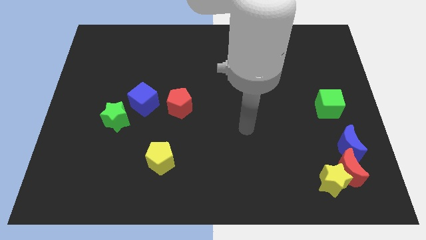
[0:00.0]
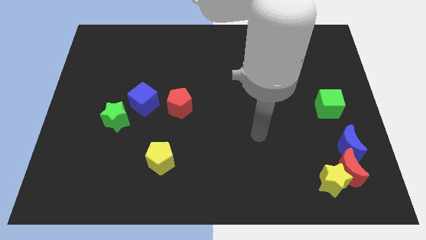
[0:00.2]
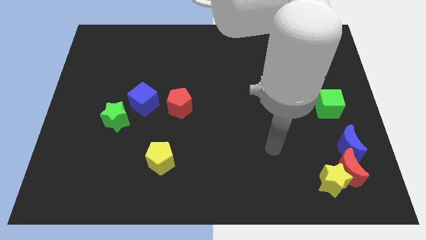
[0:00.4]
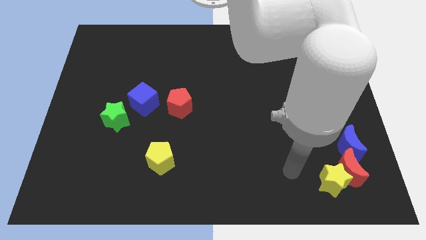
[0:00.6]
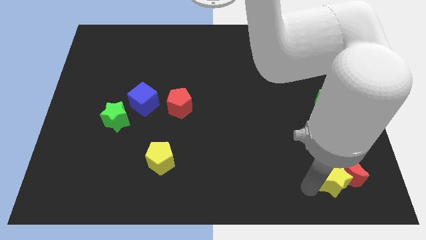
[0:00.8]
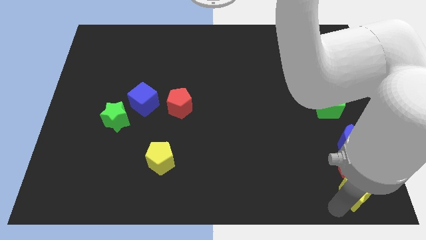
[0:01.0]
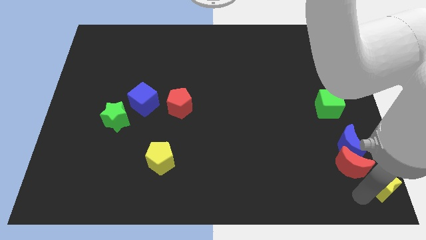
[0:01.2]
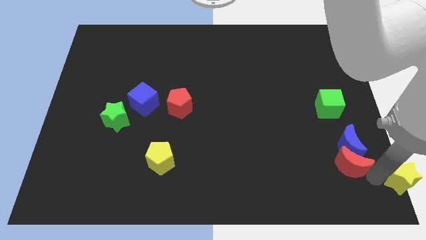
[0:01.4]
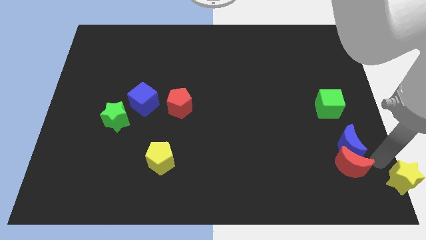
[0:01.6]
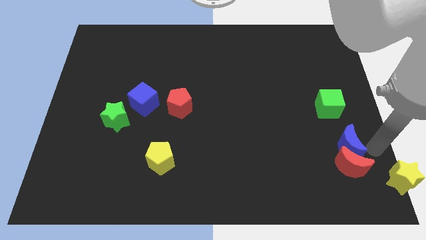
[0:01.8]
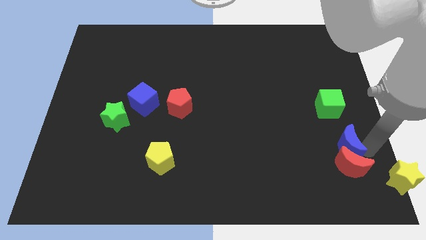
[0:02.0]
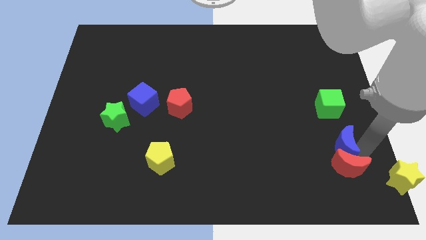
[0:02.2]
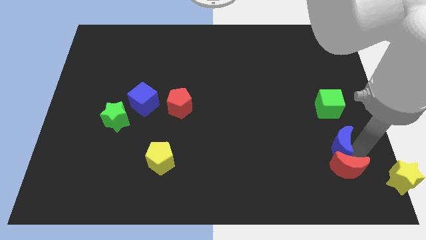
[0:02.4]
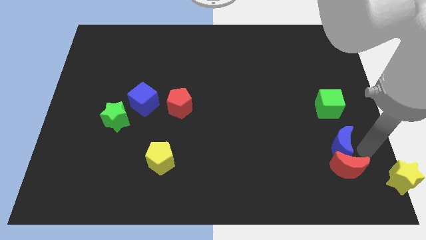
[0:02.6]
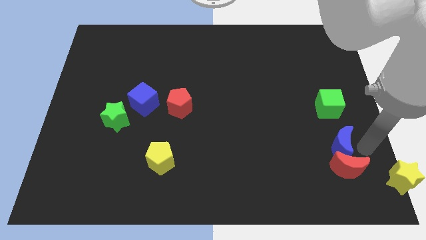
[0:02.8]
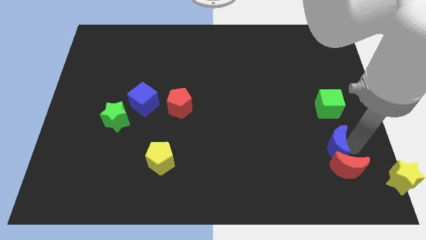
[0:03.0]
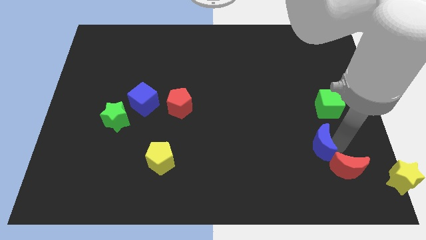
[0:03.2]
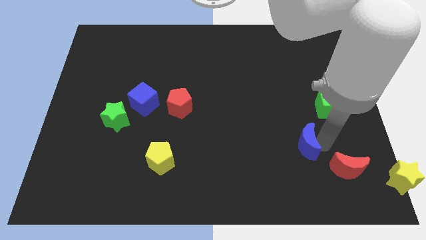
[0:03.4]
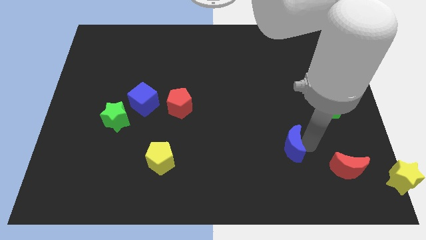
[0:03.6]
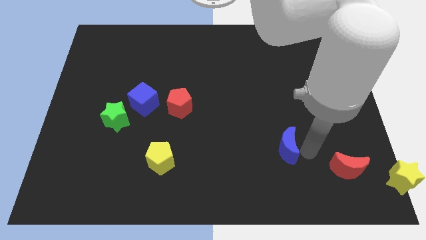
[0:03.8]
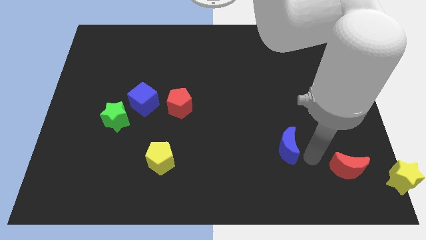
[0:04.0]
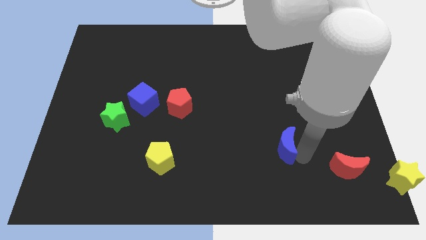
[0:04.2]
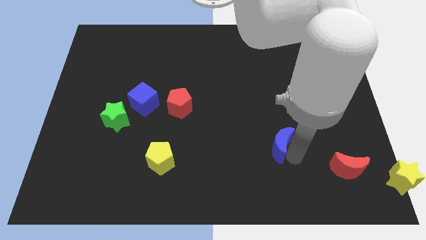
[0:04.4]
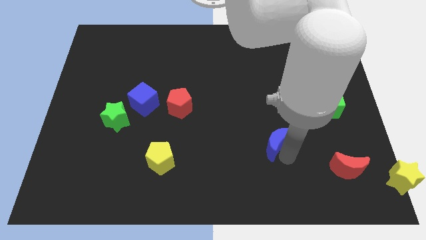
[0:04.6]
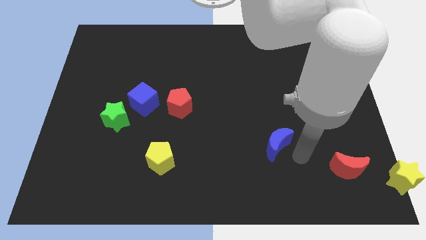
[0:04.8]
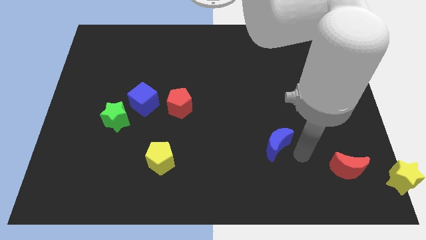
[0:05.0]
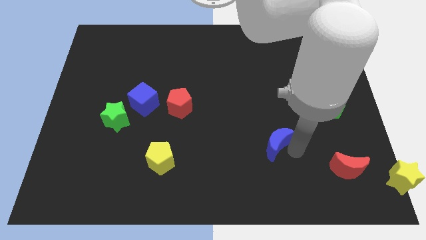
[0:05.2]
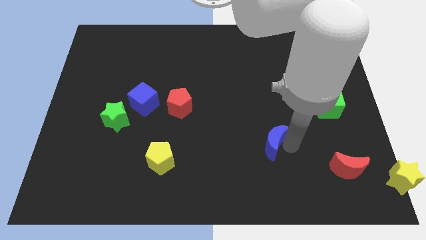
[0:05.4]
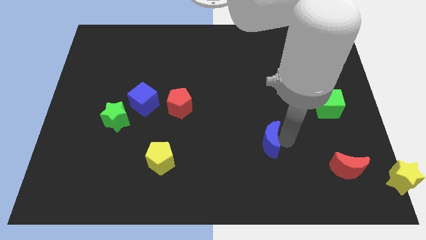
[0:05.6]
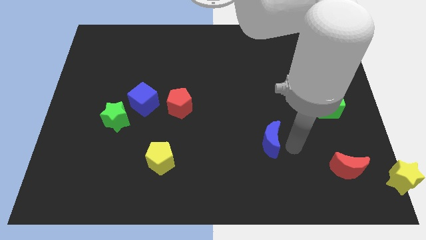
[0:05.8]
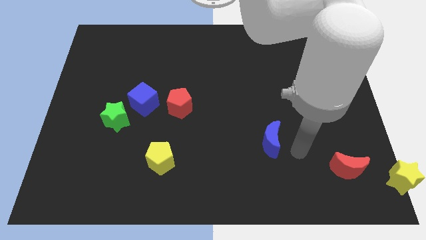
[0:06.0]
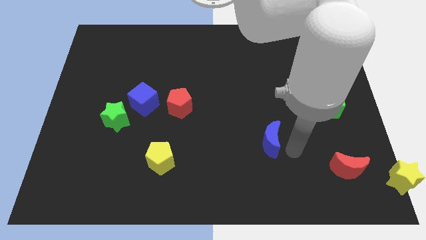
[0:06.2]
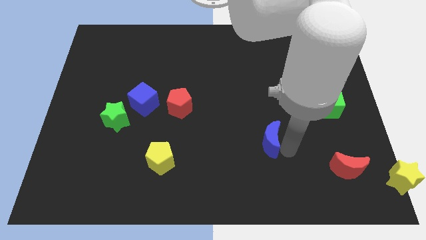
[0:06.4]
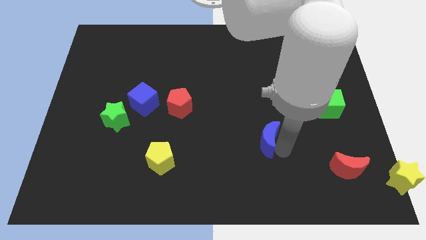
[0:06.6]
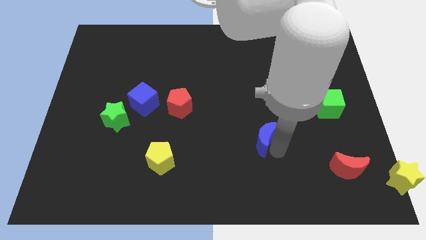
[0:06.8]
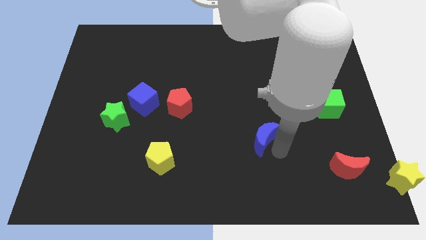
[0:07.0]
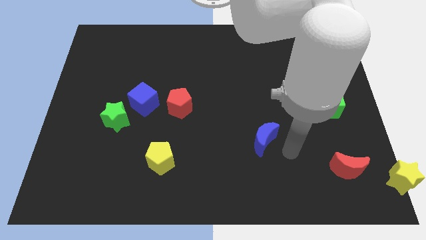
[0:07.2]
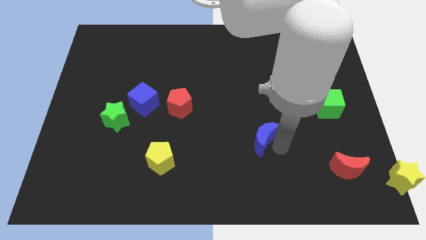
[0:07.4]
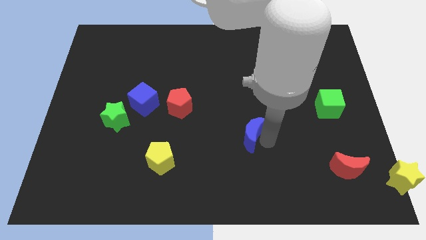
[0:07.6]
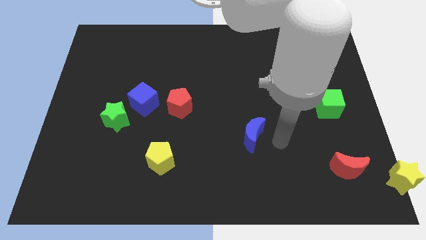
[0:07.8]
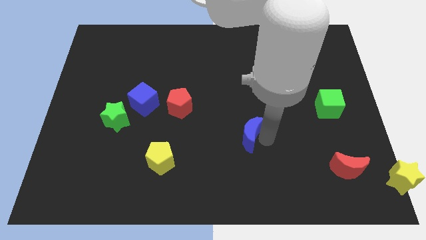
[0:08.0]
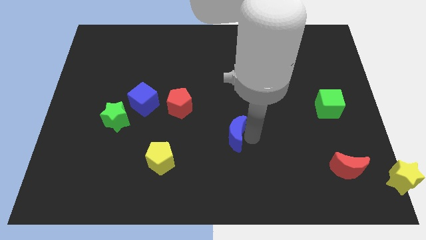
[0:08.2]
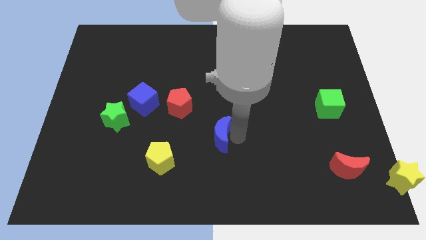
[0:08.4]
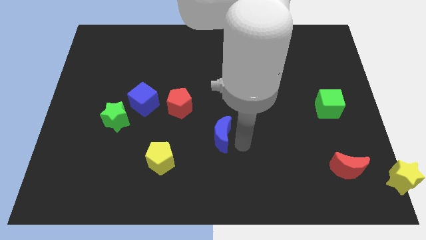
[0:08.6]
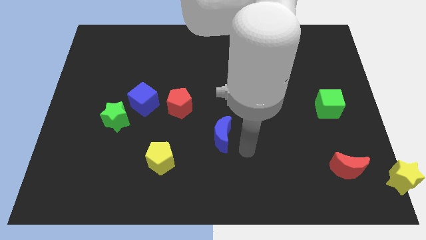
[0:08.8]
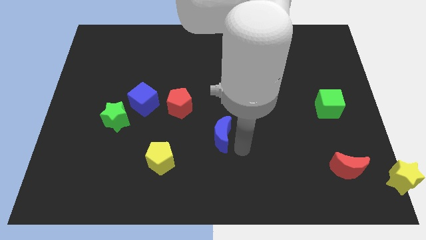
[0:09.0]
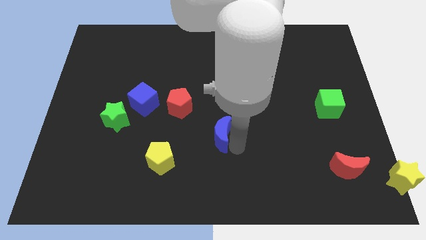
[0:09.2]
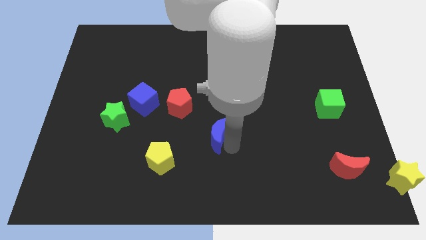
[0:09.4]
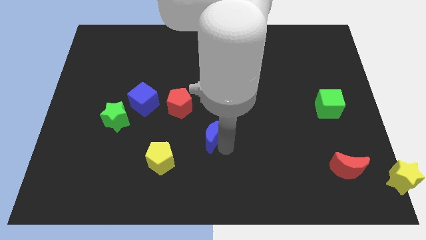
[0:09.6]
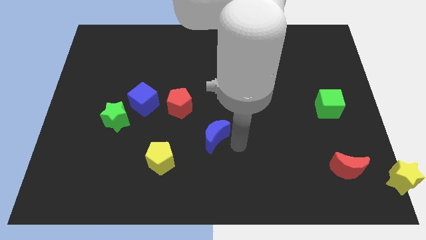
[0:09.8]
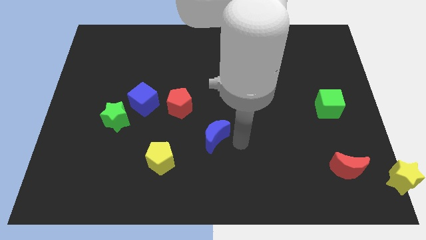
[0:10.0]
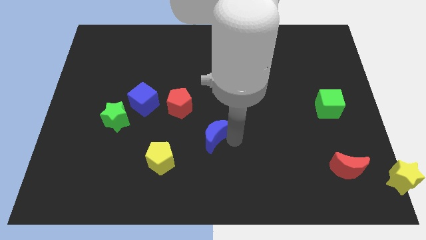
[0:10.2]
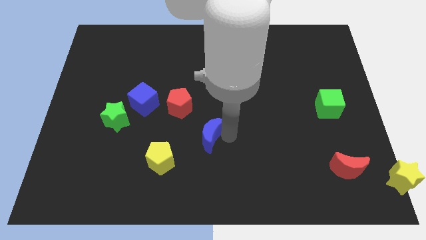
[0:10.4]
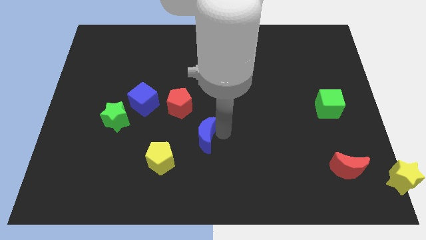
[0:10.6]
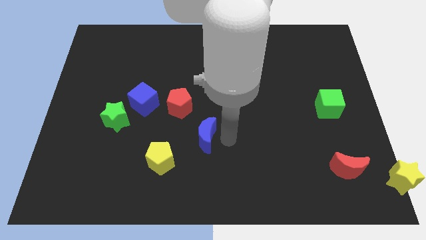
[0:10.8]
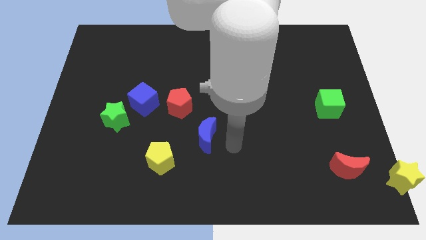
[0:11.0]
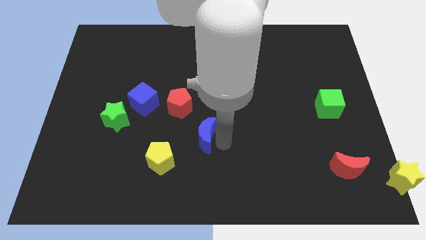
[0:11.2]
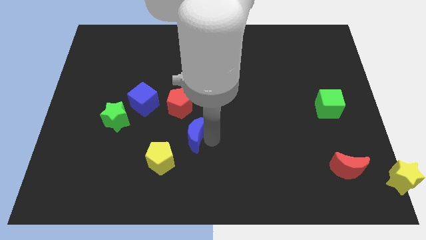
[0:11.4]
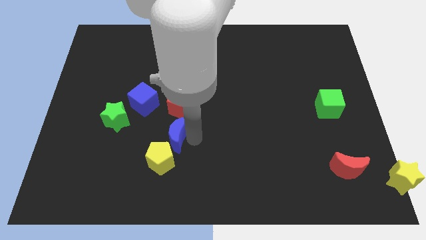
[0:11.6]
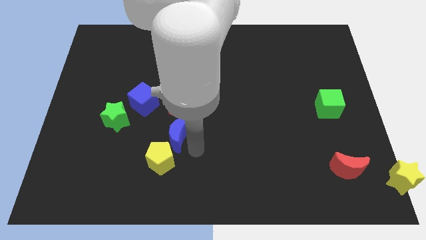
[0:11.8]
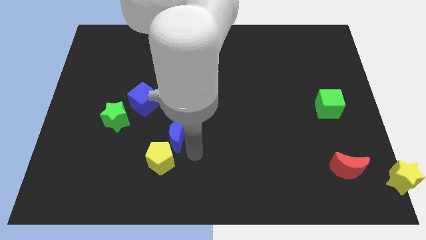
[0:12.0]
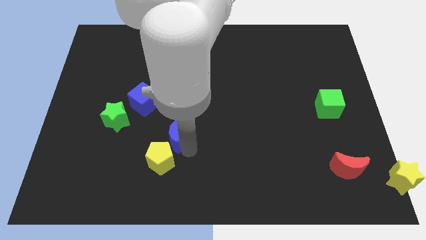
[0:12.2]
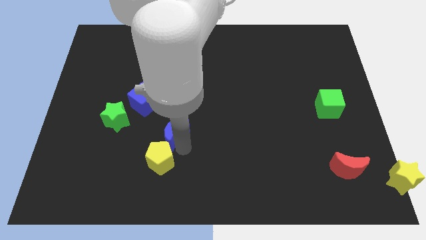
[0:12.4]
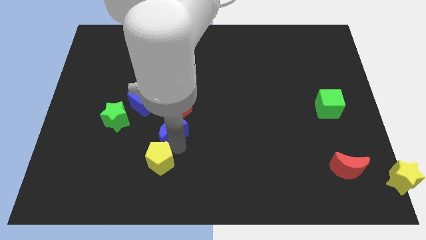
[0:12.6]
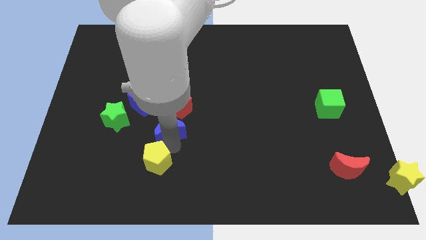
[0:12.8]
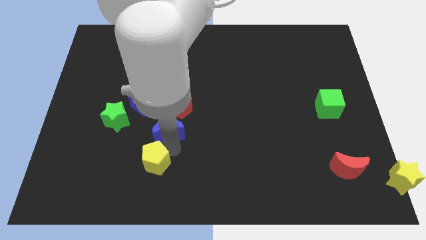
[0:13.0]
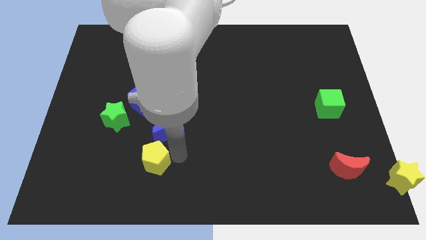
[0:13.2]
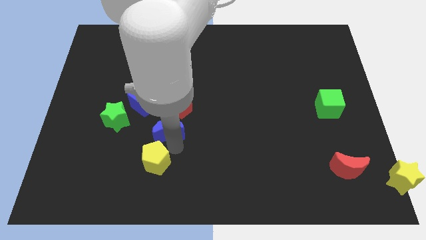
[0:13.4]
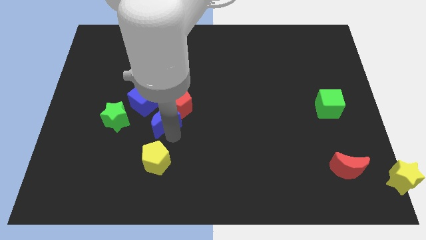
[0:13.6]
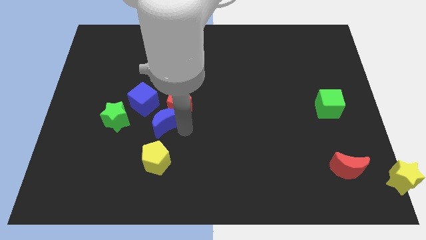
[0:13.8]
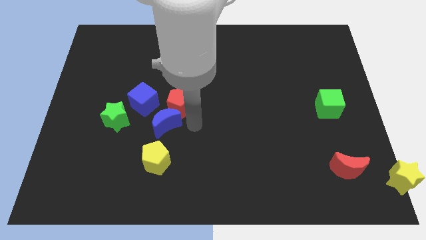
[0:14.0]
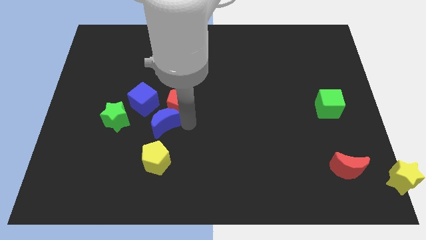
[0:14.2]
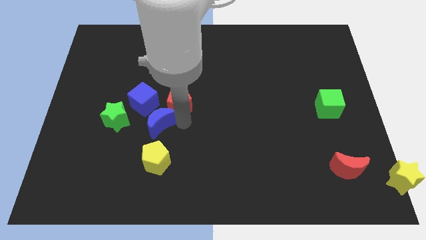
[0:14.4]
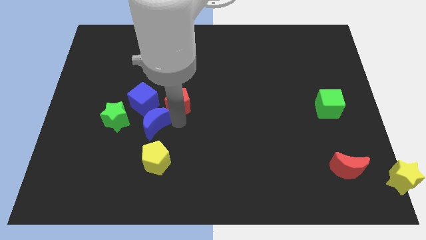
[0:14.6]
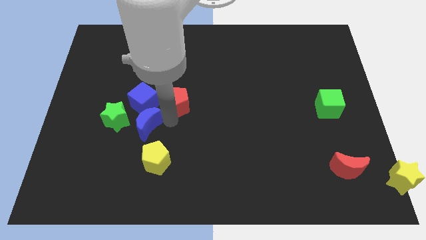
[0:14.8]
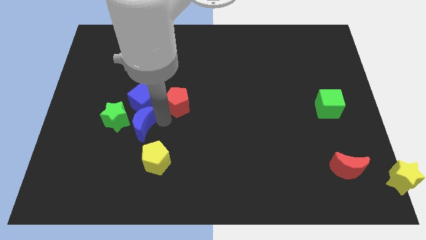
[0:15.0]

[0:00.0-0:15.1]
move the blue moon to the green star
